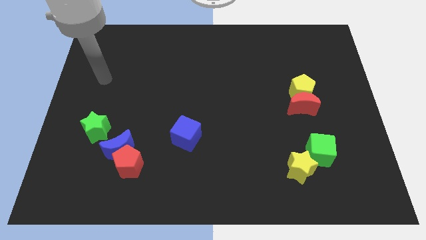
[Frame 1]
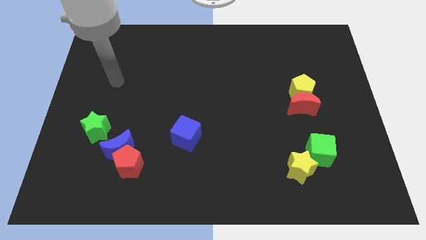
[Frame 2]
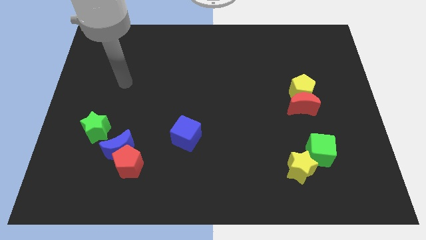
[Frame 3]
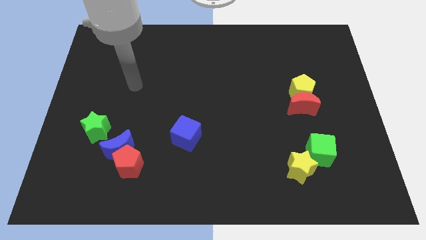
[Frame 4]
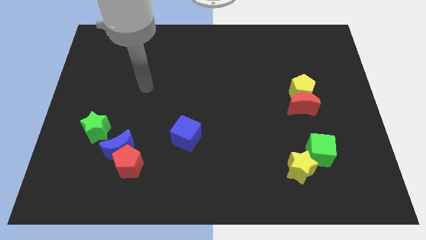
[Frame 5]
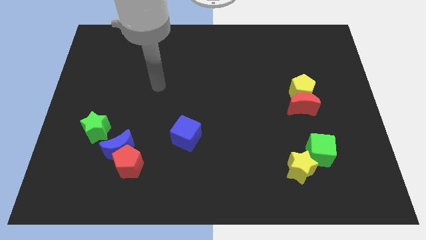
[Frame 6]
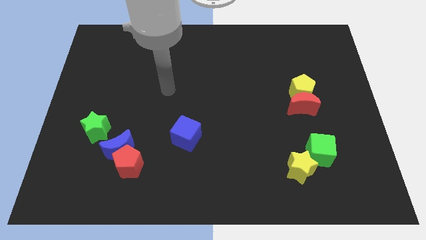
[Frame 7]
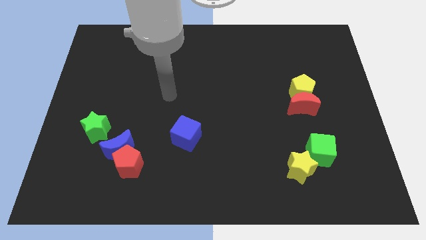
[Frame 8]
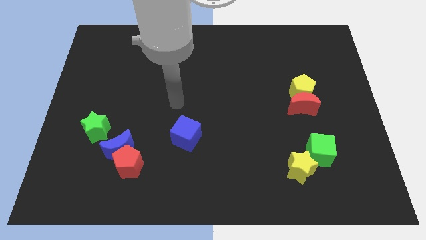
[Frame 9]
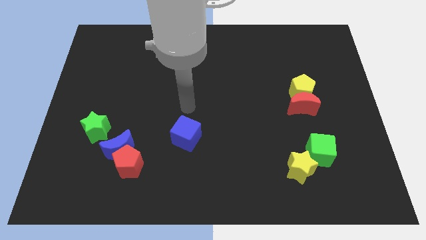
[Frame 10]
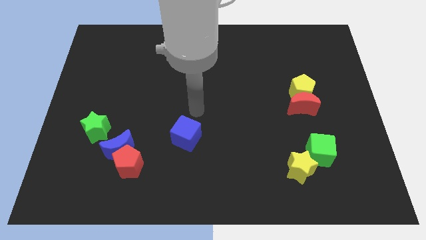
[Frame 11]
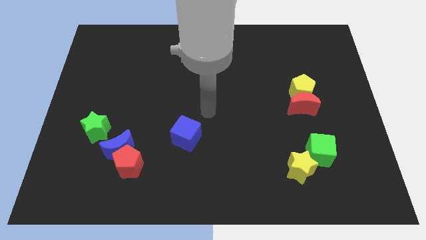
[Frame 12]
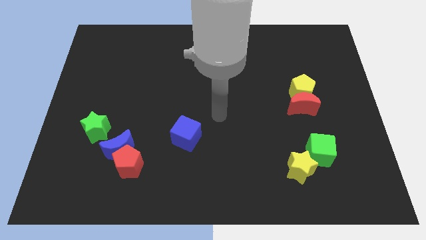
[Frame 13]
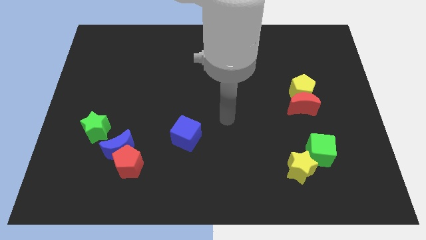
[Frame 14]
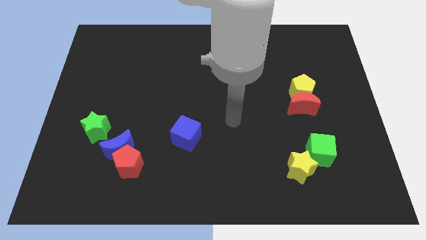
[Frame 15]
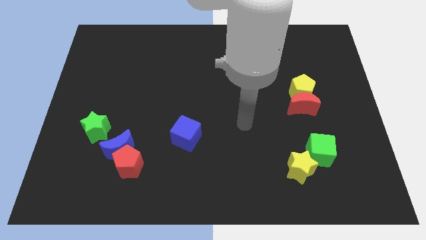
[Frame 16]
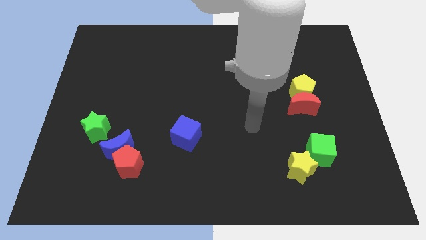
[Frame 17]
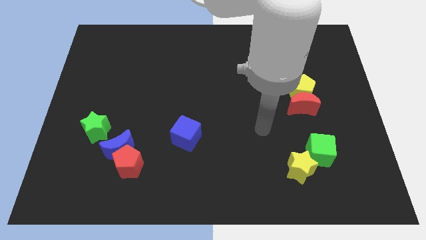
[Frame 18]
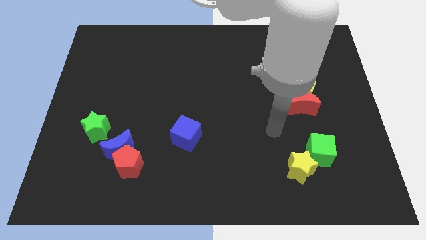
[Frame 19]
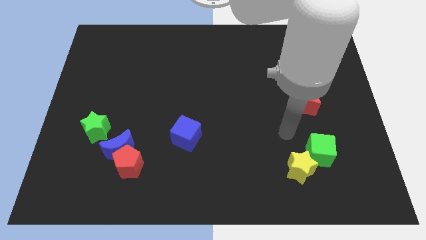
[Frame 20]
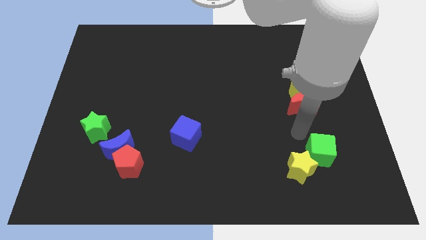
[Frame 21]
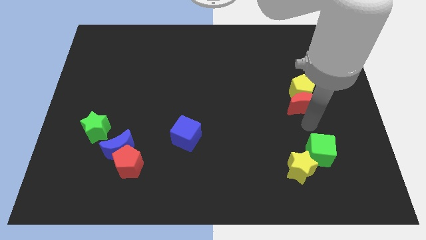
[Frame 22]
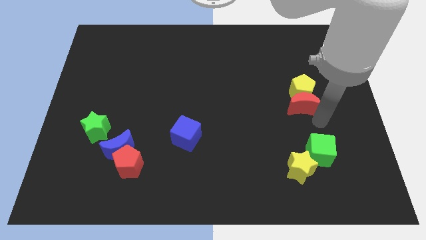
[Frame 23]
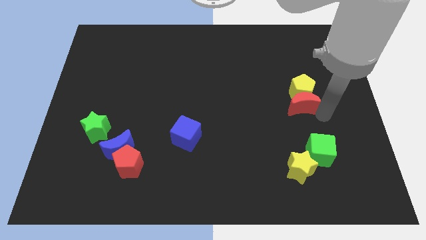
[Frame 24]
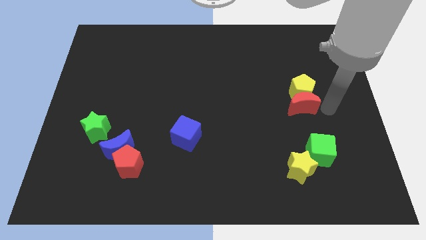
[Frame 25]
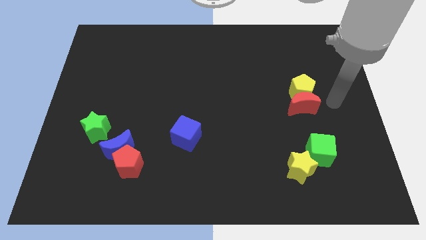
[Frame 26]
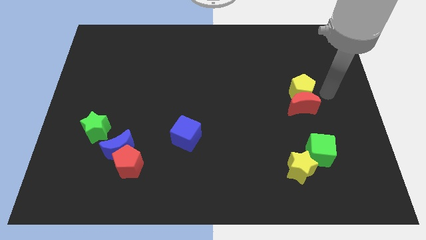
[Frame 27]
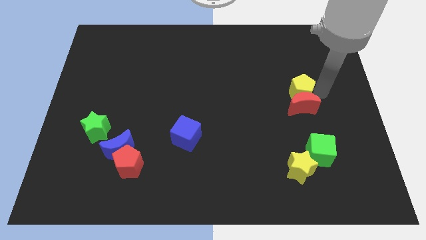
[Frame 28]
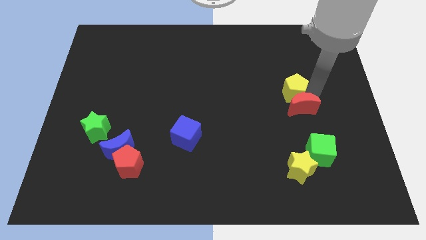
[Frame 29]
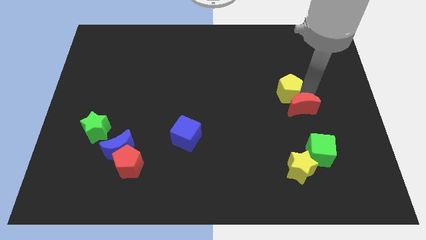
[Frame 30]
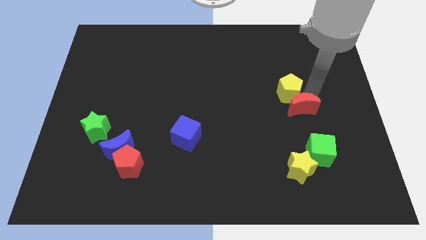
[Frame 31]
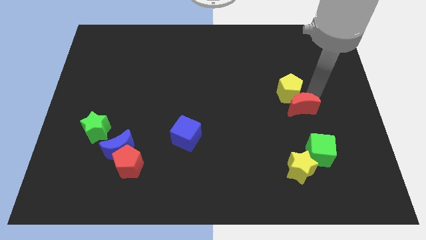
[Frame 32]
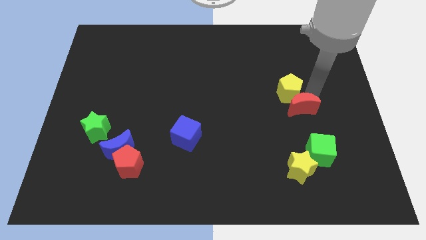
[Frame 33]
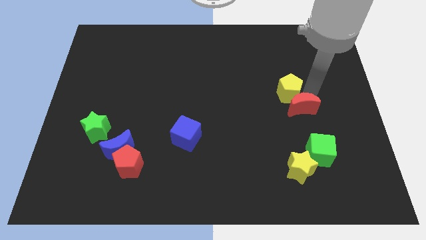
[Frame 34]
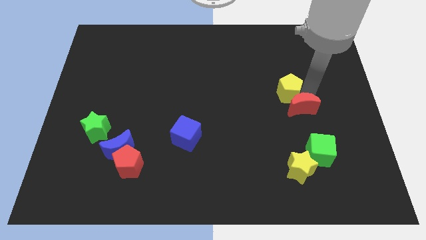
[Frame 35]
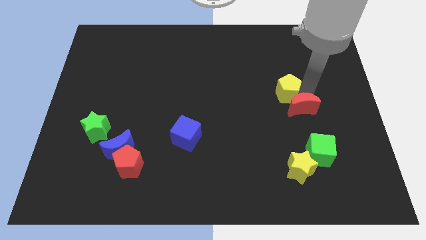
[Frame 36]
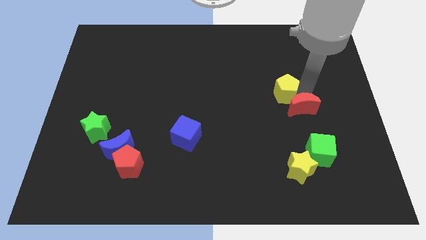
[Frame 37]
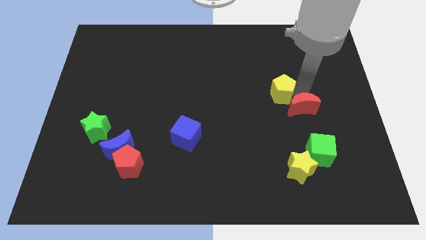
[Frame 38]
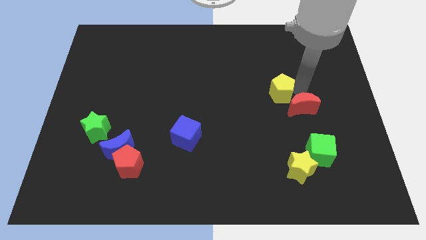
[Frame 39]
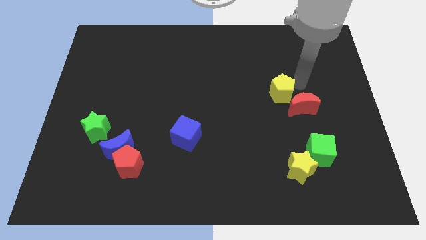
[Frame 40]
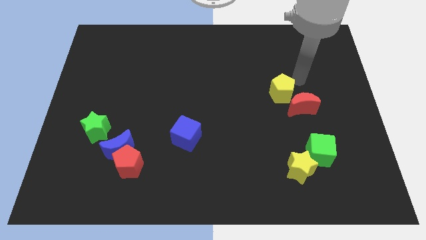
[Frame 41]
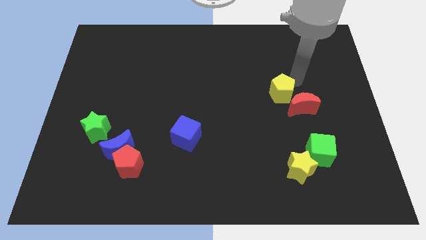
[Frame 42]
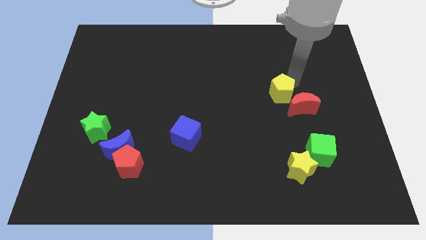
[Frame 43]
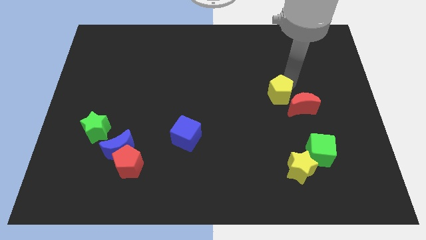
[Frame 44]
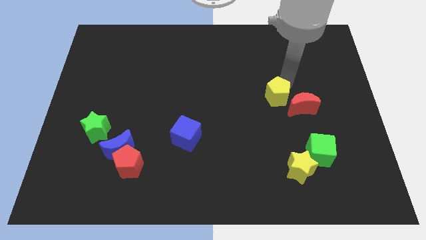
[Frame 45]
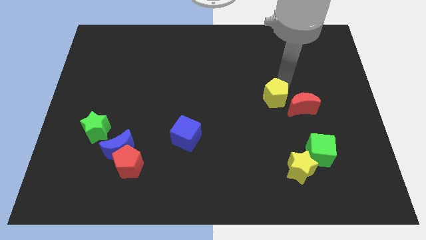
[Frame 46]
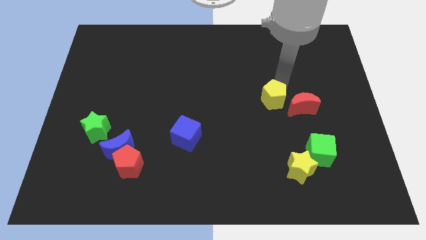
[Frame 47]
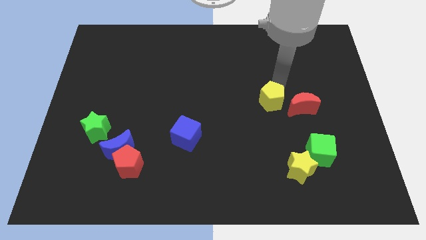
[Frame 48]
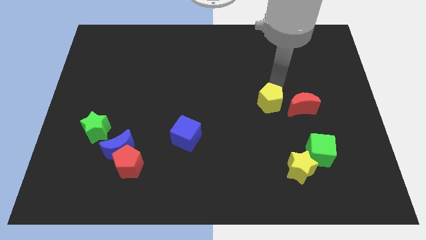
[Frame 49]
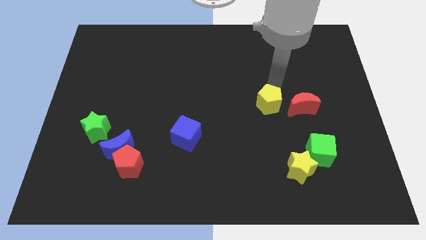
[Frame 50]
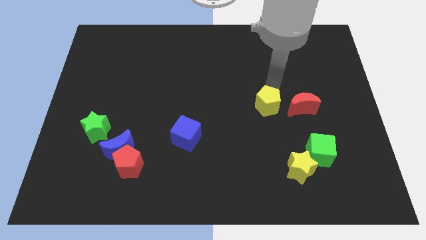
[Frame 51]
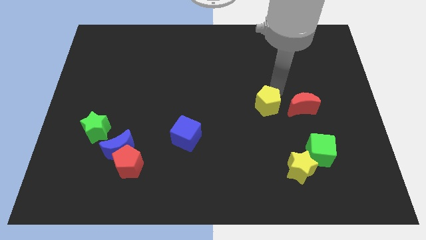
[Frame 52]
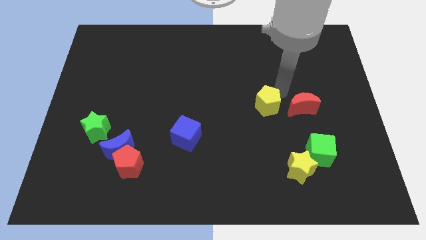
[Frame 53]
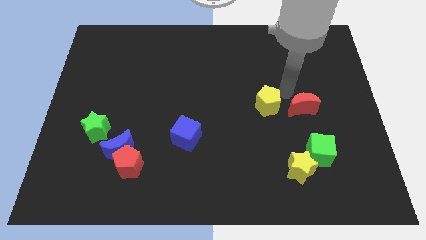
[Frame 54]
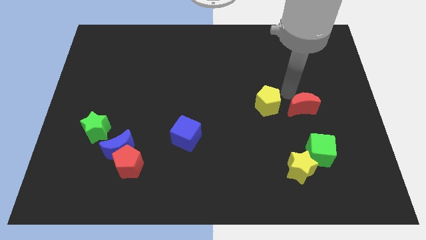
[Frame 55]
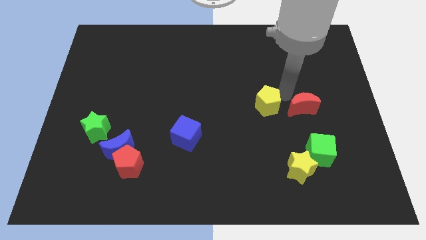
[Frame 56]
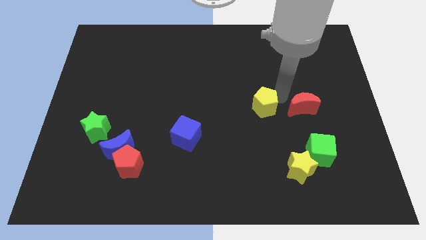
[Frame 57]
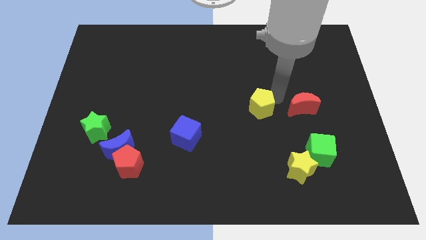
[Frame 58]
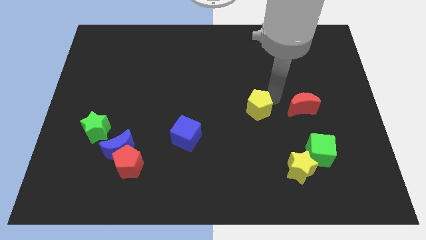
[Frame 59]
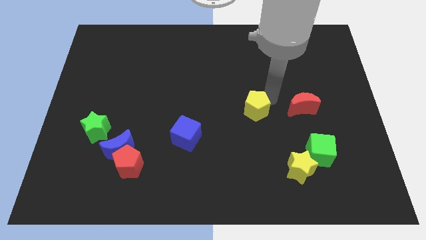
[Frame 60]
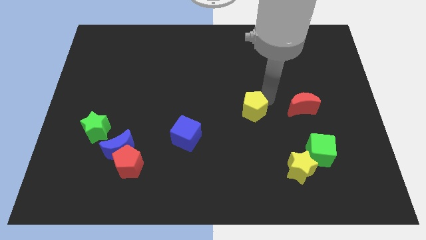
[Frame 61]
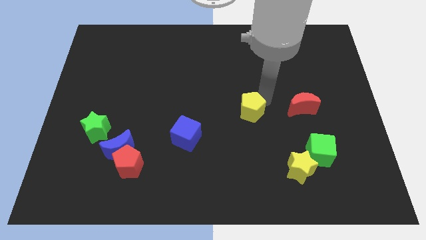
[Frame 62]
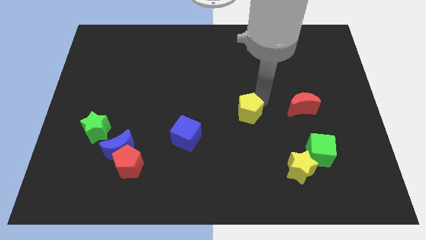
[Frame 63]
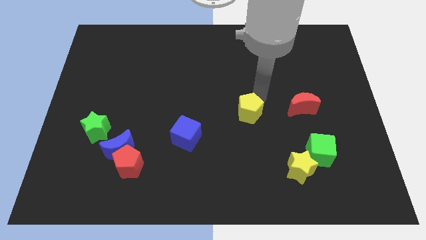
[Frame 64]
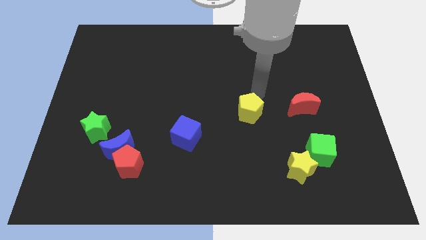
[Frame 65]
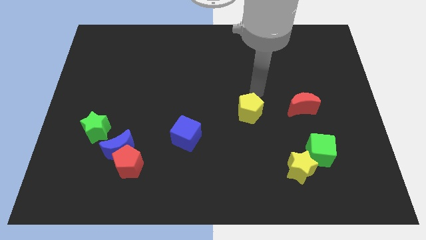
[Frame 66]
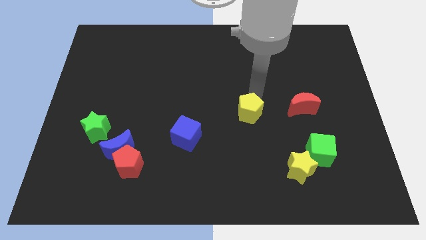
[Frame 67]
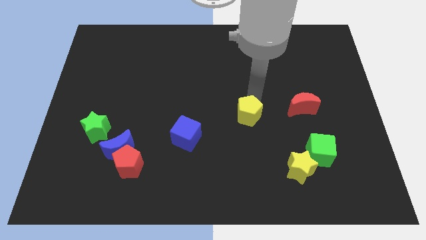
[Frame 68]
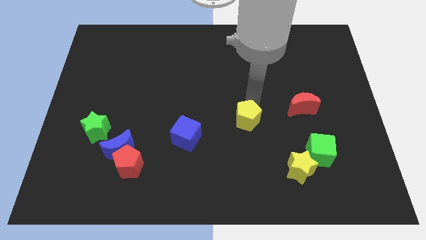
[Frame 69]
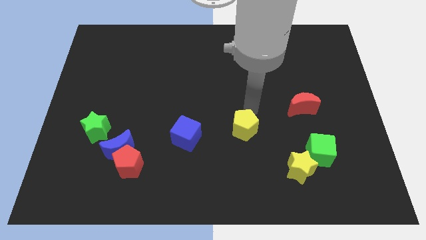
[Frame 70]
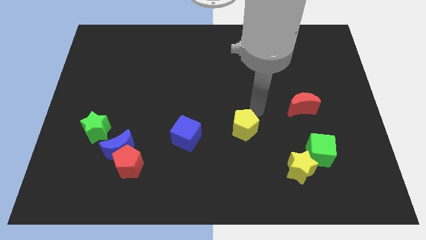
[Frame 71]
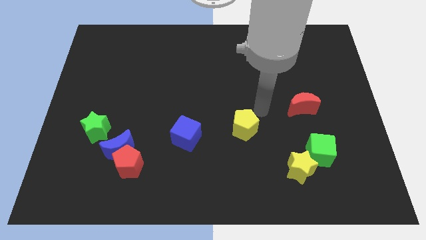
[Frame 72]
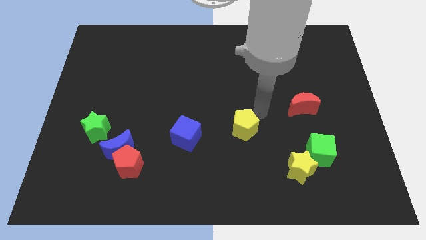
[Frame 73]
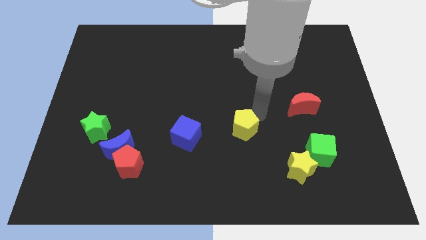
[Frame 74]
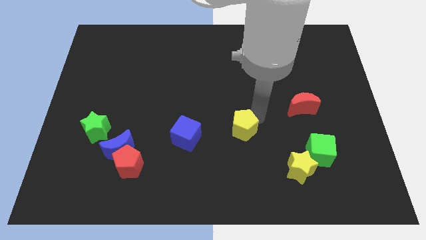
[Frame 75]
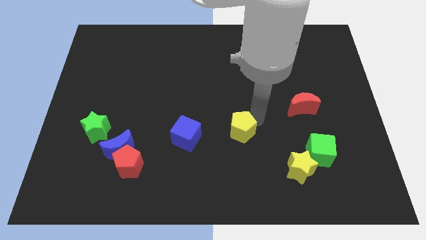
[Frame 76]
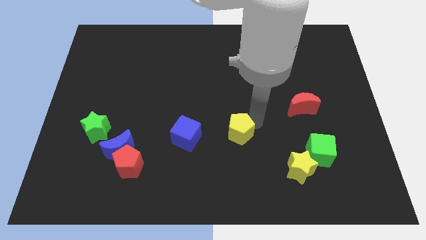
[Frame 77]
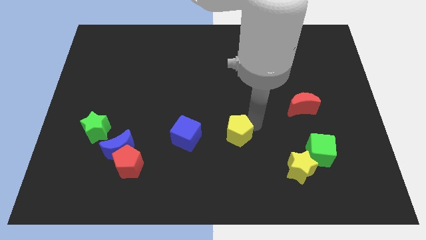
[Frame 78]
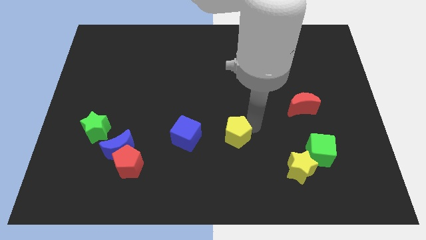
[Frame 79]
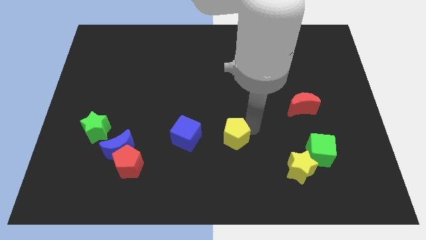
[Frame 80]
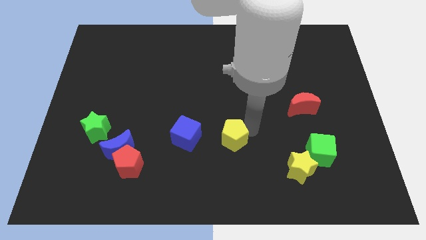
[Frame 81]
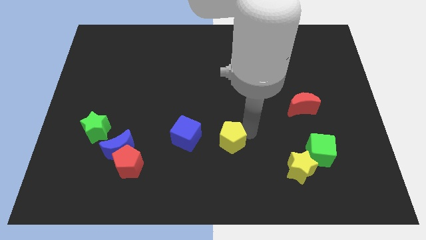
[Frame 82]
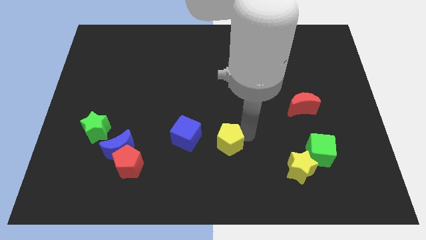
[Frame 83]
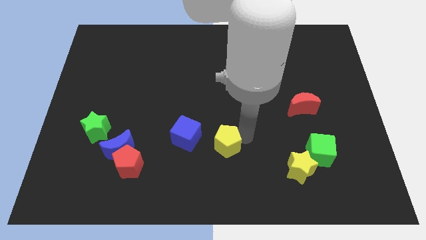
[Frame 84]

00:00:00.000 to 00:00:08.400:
put the yellow pentagon to the bottom right of the blue cube
